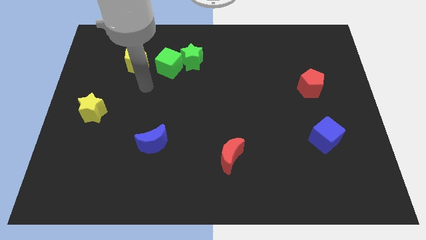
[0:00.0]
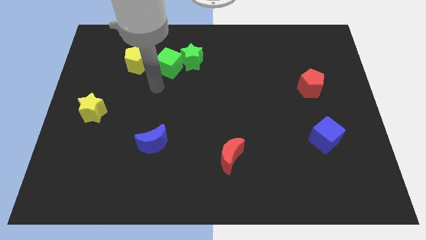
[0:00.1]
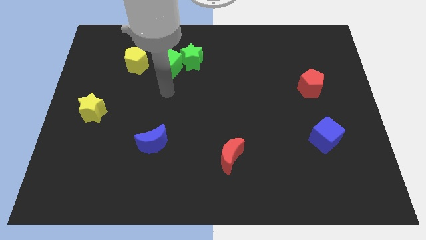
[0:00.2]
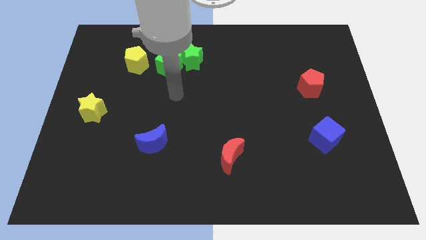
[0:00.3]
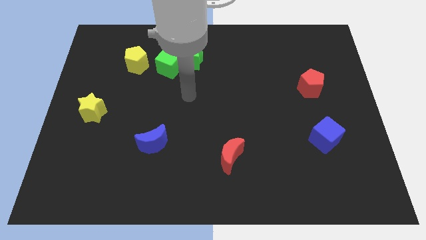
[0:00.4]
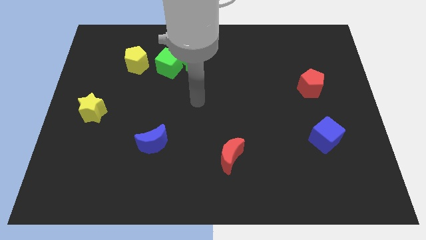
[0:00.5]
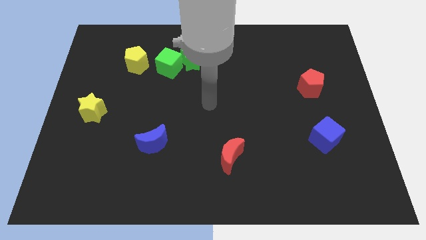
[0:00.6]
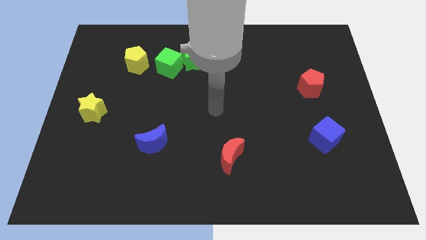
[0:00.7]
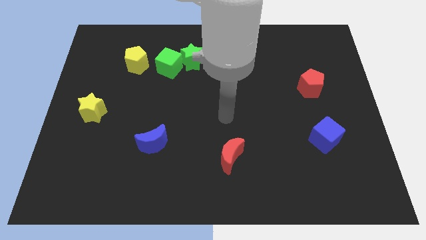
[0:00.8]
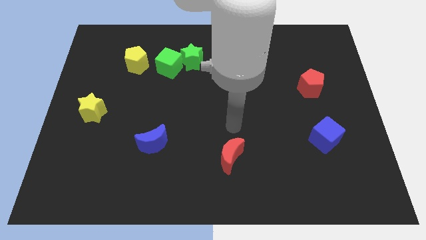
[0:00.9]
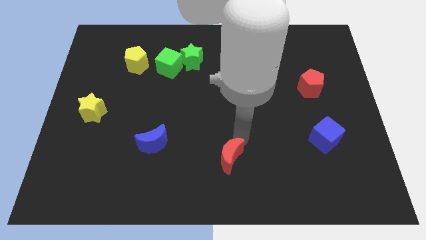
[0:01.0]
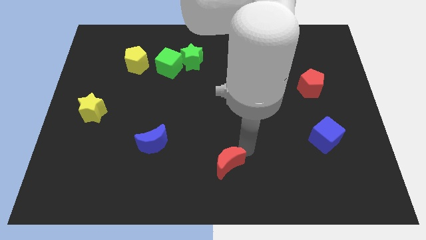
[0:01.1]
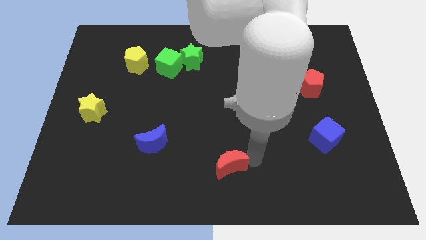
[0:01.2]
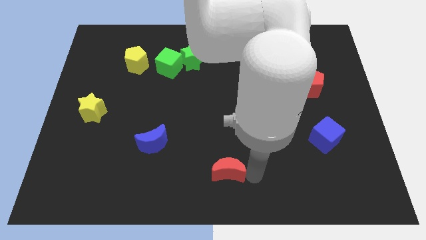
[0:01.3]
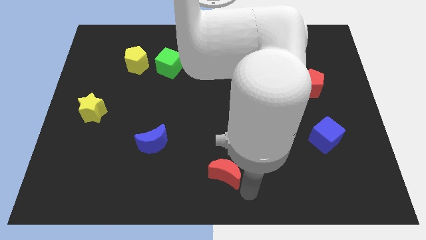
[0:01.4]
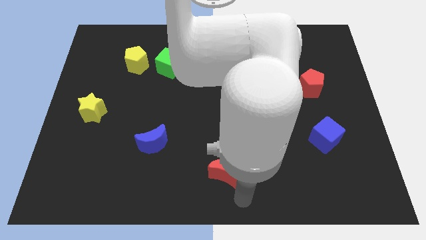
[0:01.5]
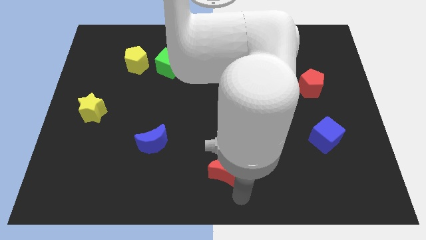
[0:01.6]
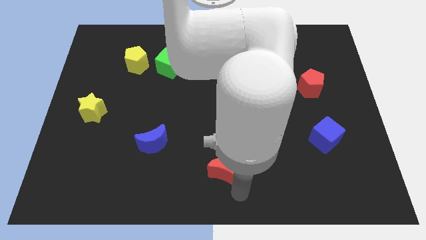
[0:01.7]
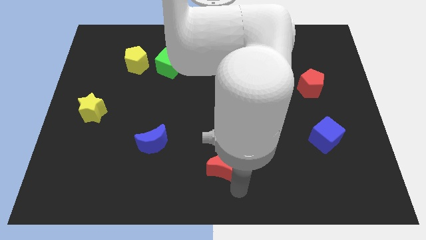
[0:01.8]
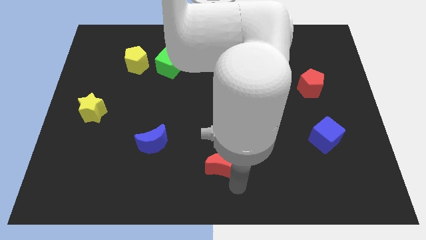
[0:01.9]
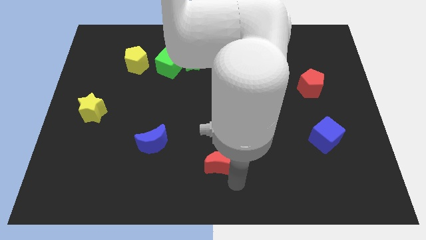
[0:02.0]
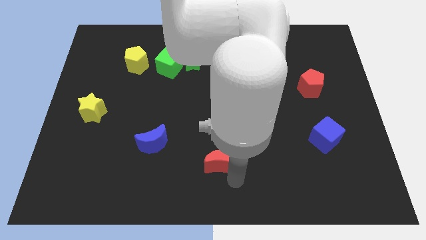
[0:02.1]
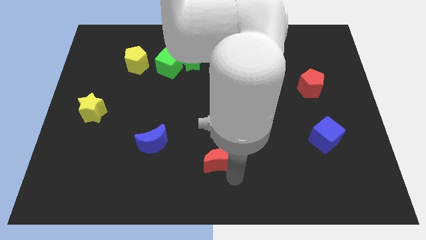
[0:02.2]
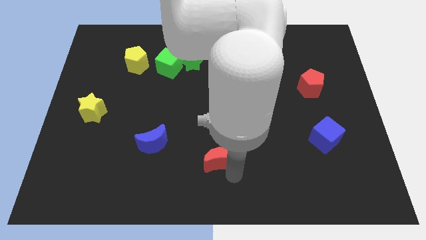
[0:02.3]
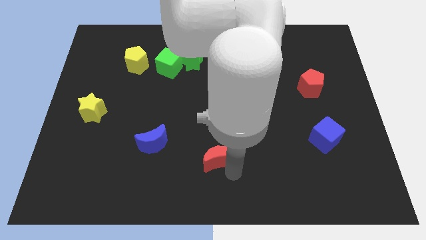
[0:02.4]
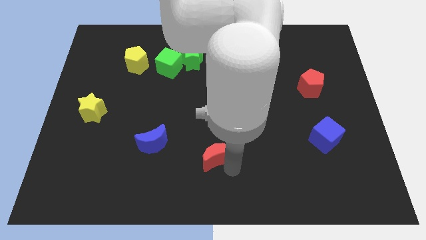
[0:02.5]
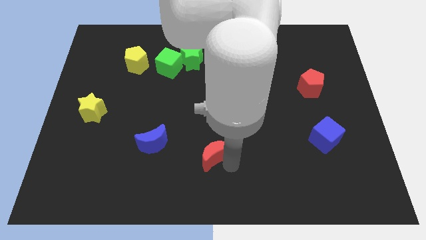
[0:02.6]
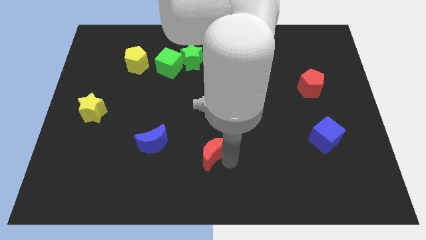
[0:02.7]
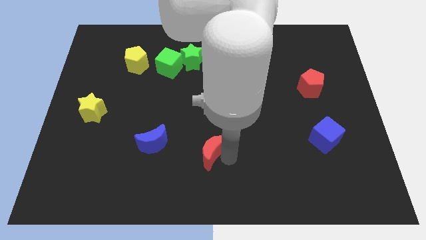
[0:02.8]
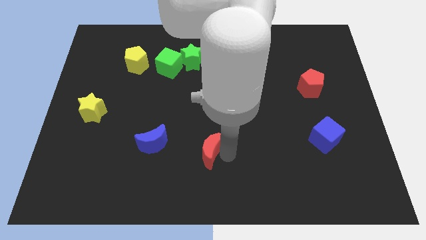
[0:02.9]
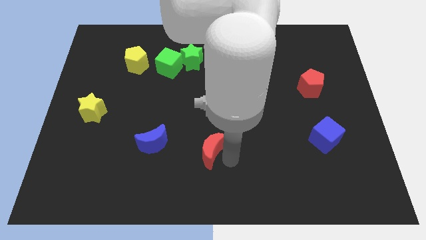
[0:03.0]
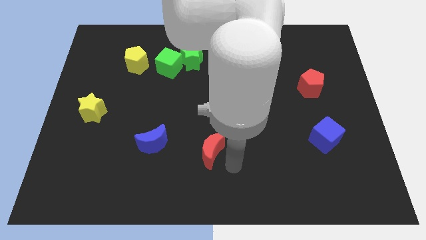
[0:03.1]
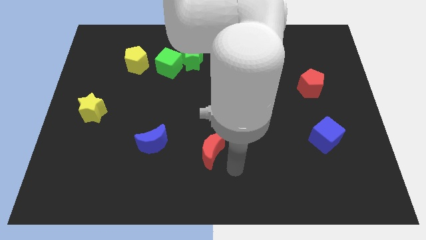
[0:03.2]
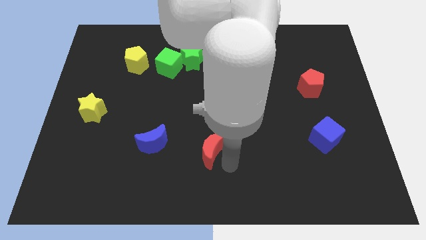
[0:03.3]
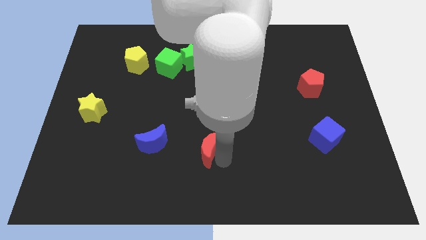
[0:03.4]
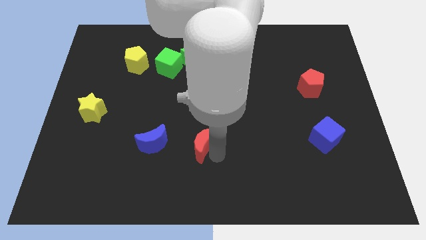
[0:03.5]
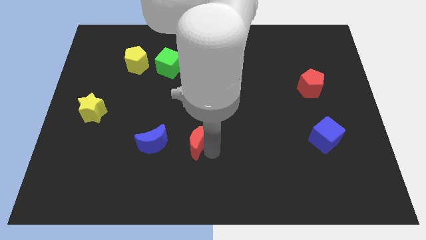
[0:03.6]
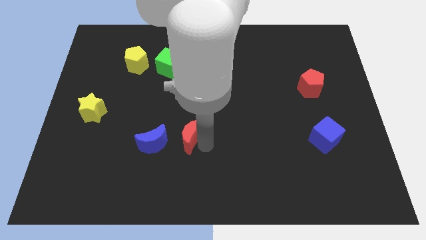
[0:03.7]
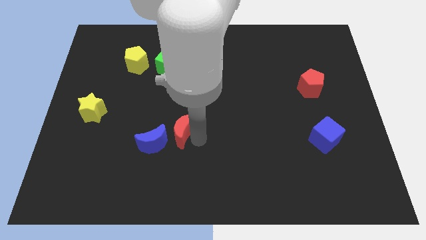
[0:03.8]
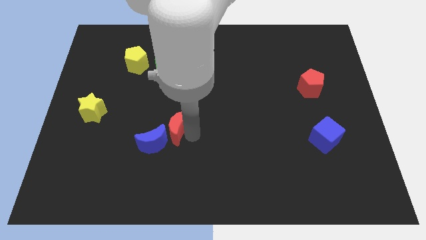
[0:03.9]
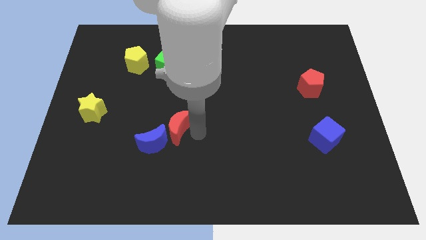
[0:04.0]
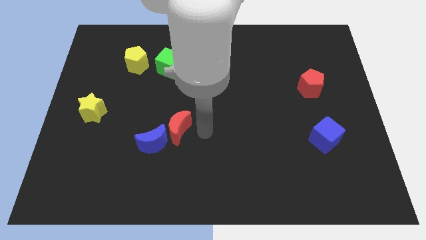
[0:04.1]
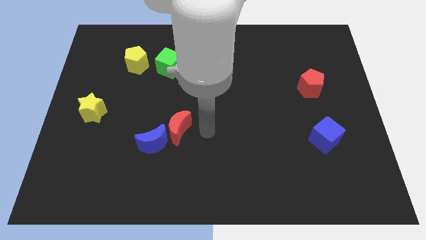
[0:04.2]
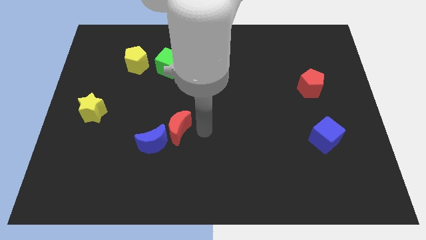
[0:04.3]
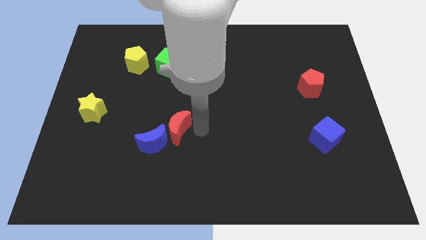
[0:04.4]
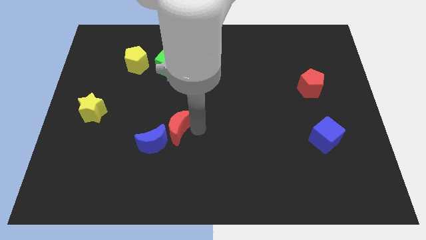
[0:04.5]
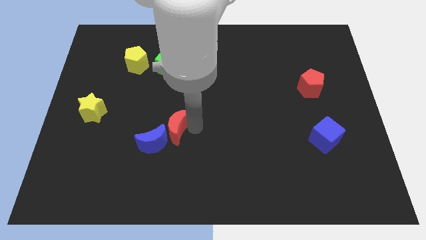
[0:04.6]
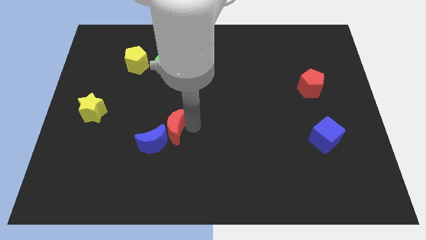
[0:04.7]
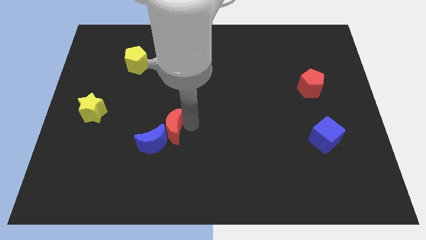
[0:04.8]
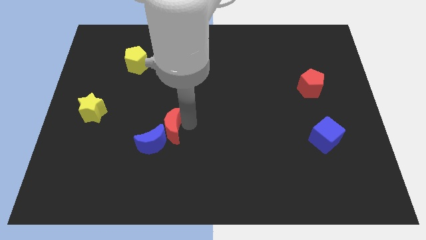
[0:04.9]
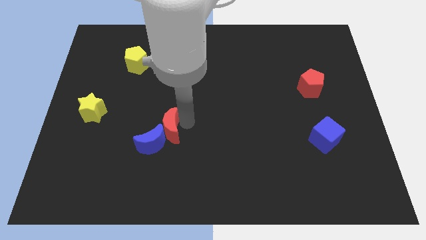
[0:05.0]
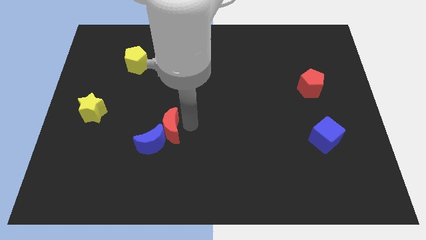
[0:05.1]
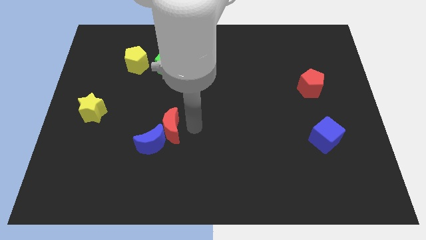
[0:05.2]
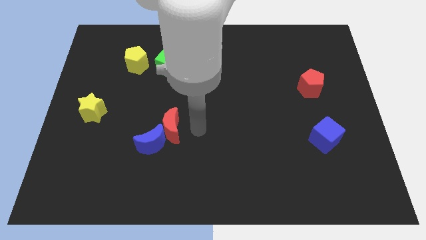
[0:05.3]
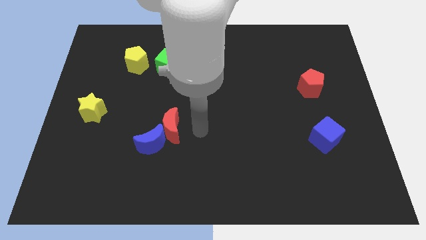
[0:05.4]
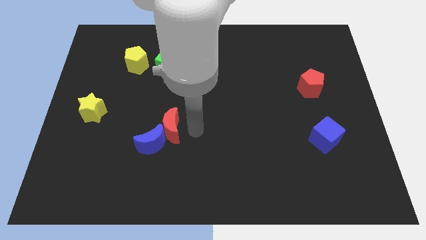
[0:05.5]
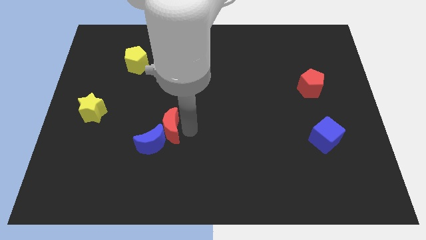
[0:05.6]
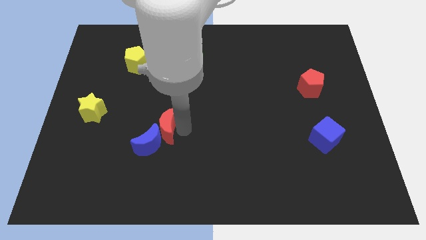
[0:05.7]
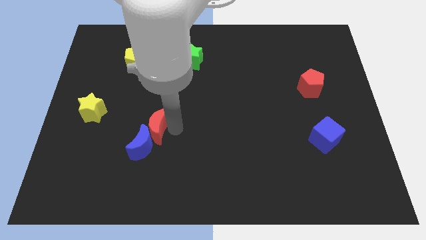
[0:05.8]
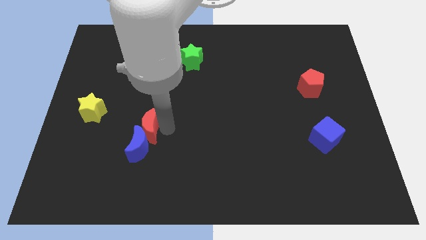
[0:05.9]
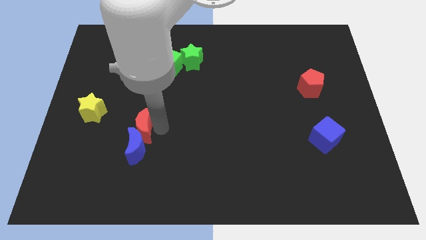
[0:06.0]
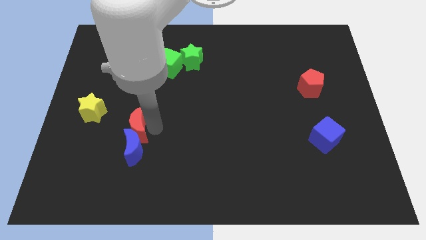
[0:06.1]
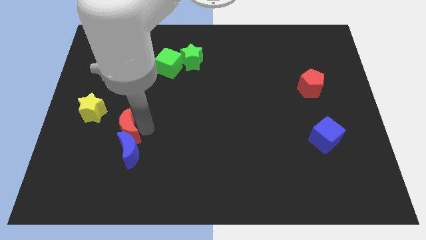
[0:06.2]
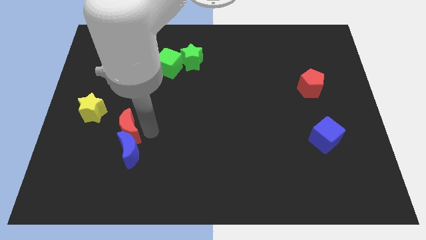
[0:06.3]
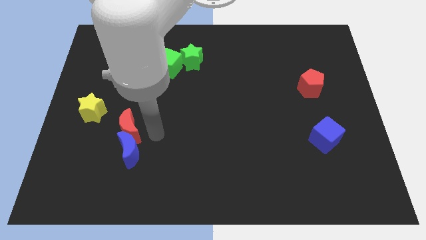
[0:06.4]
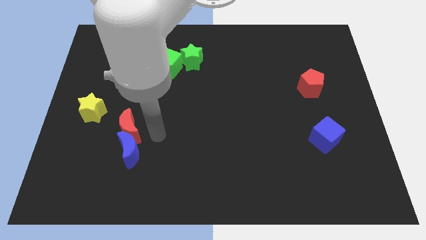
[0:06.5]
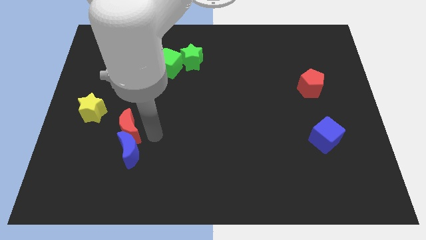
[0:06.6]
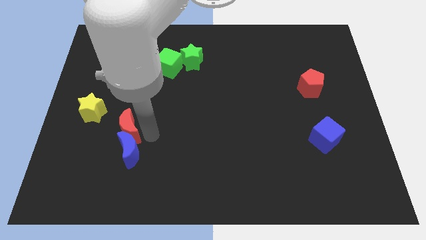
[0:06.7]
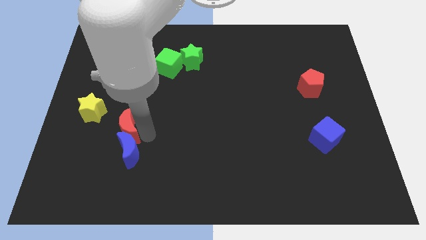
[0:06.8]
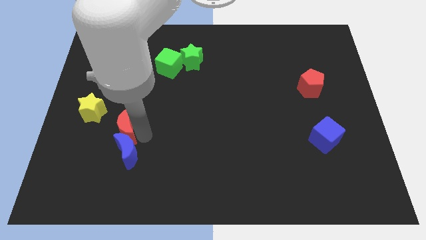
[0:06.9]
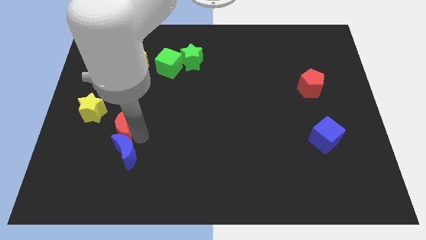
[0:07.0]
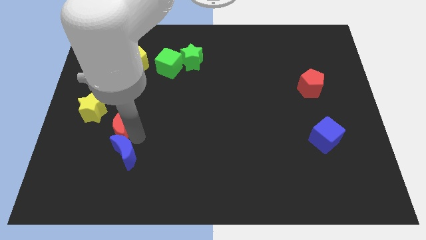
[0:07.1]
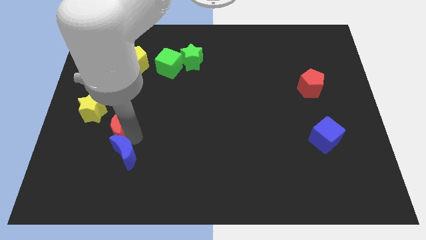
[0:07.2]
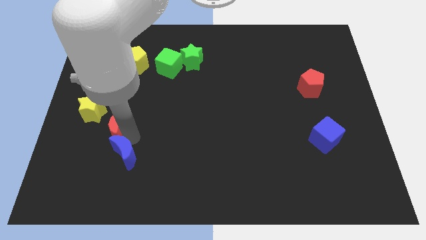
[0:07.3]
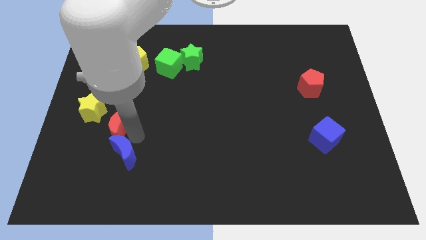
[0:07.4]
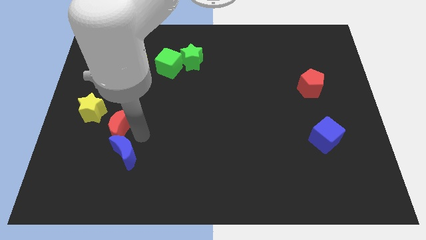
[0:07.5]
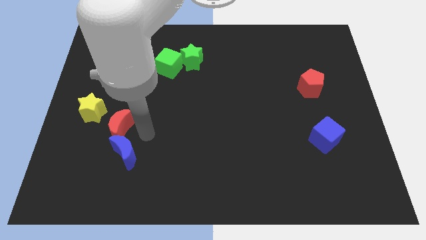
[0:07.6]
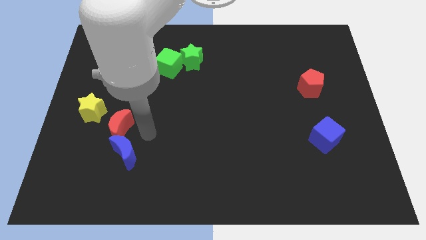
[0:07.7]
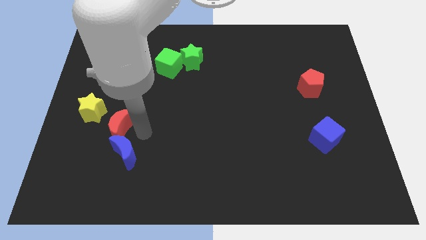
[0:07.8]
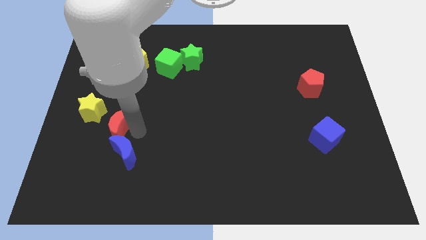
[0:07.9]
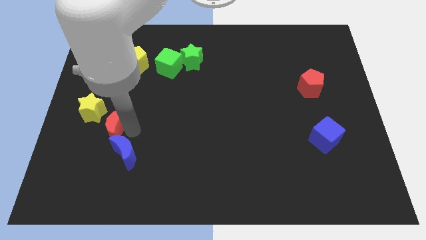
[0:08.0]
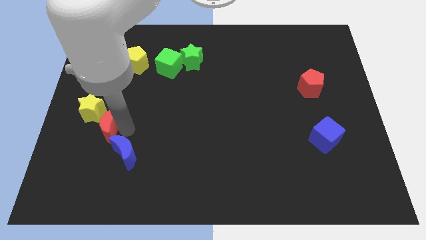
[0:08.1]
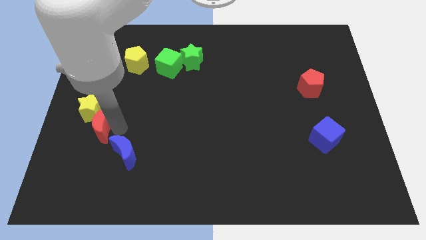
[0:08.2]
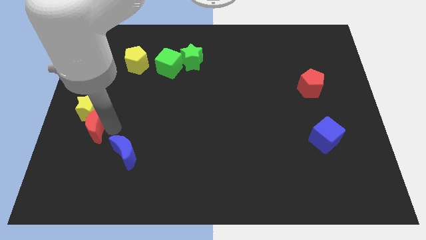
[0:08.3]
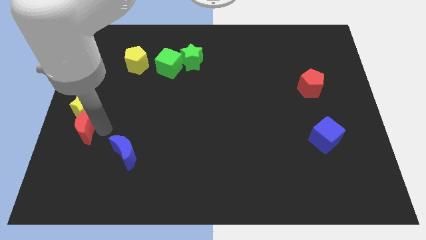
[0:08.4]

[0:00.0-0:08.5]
slide the red moon to the left side of the board
